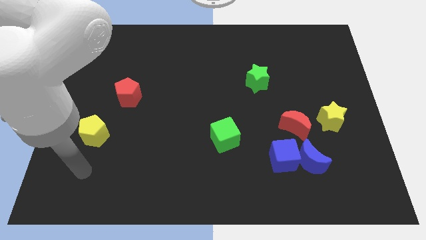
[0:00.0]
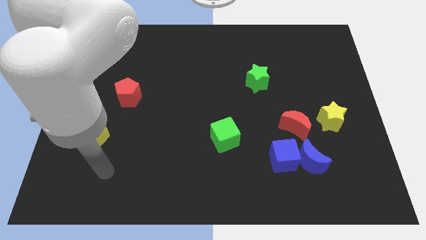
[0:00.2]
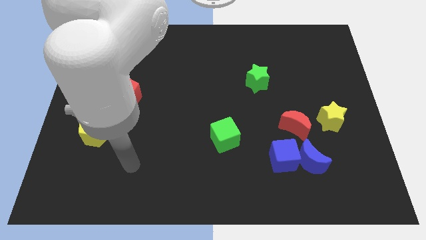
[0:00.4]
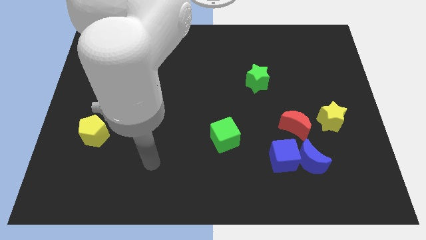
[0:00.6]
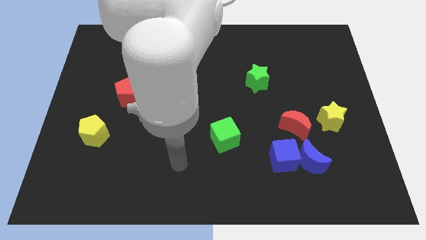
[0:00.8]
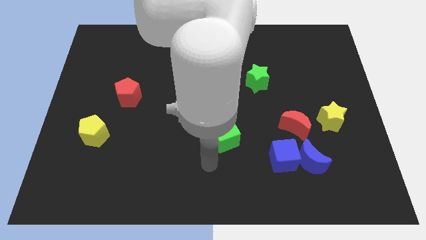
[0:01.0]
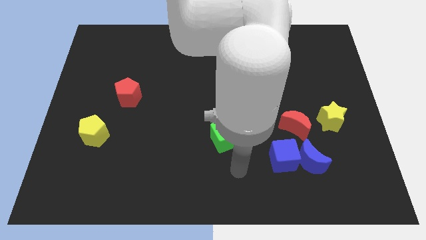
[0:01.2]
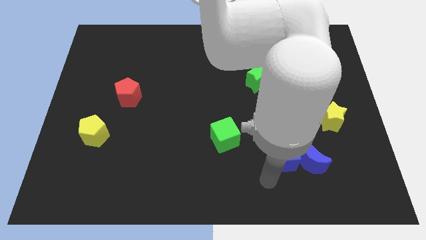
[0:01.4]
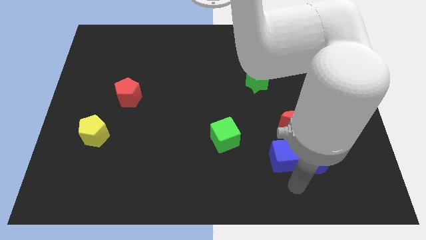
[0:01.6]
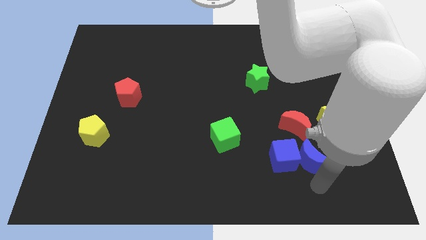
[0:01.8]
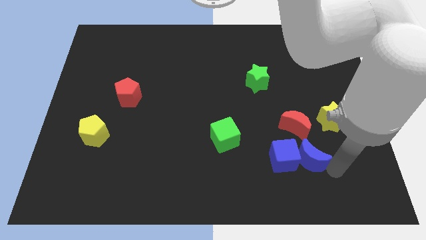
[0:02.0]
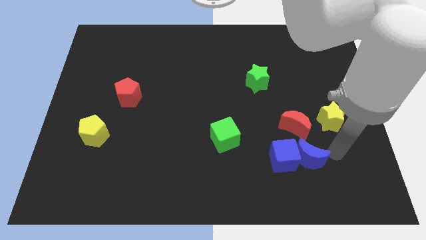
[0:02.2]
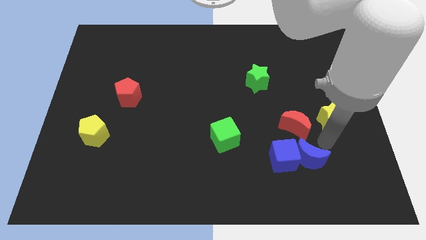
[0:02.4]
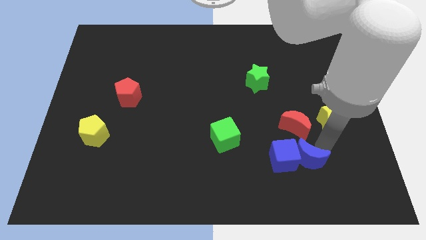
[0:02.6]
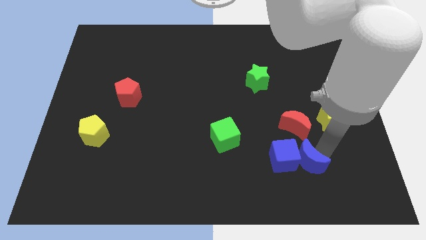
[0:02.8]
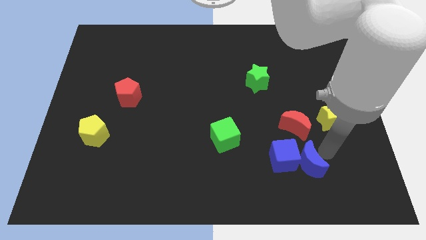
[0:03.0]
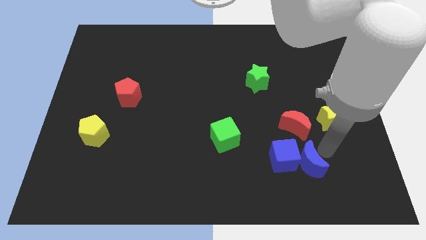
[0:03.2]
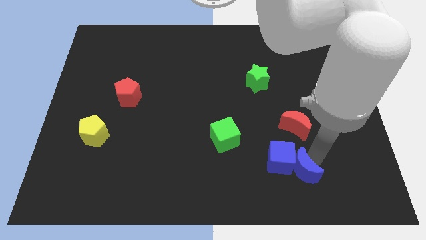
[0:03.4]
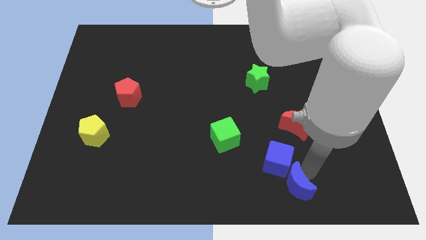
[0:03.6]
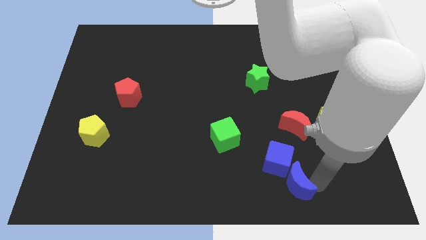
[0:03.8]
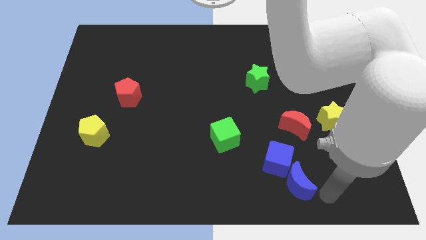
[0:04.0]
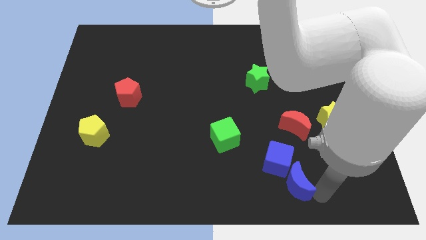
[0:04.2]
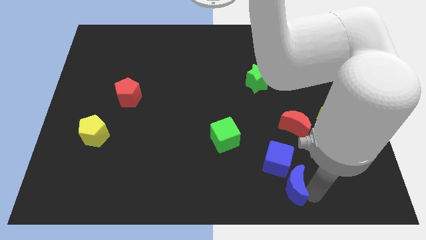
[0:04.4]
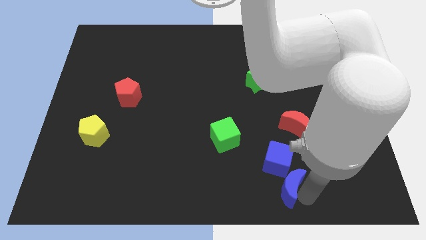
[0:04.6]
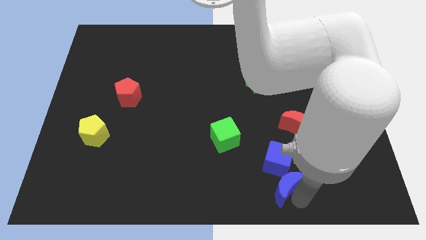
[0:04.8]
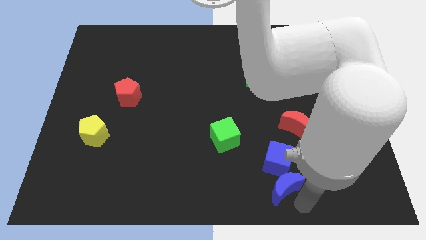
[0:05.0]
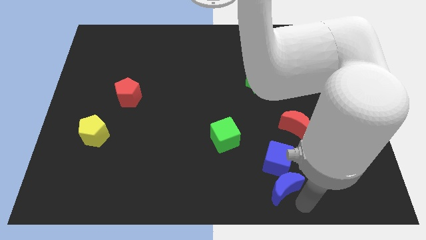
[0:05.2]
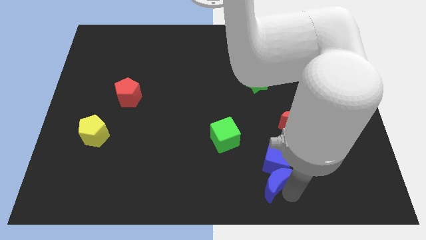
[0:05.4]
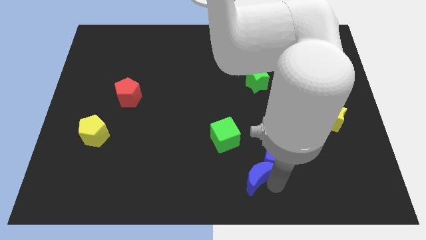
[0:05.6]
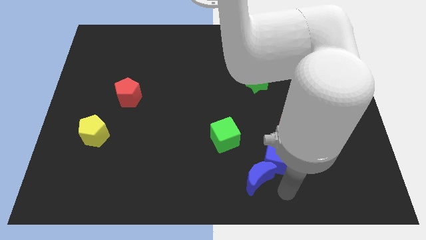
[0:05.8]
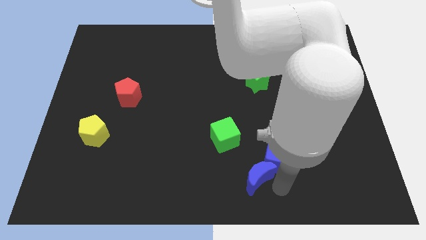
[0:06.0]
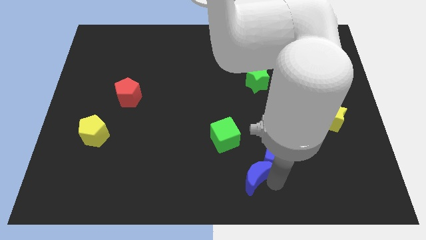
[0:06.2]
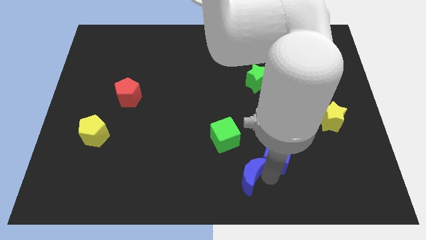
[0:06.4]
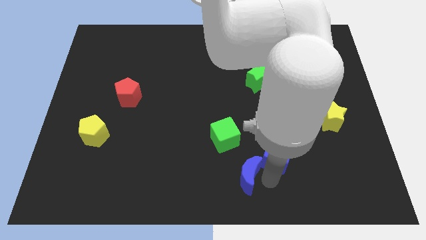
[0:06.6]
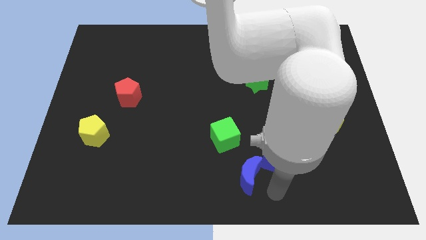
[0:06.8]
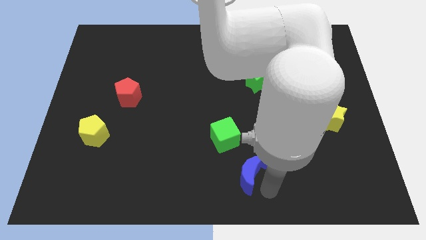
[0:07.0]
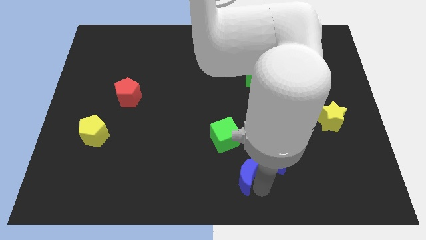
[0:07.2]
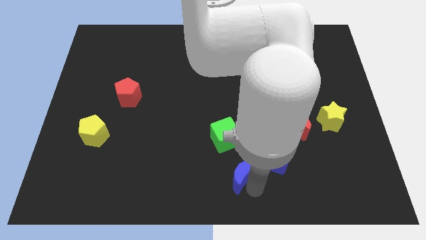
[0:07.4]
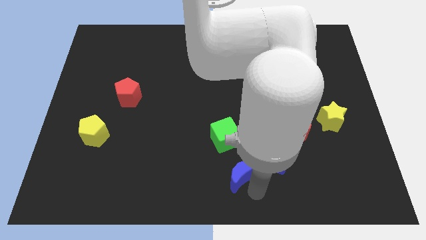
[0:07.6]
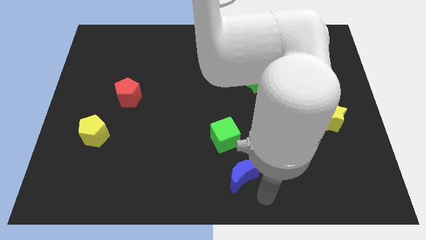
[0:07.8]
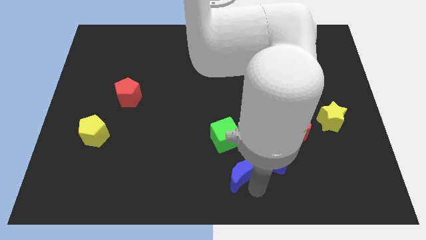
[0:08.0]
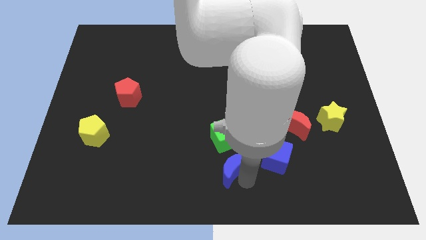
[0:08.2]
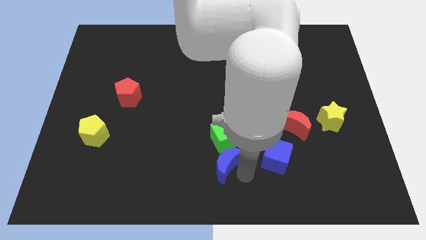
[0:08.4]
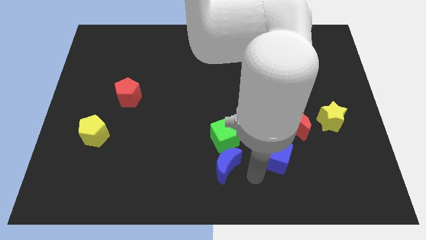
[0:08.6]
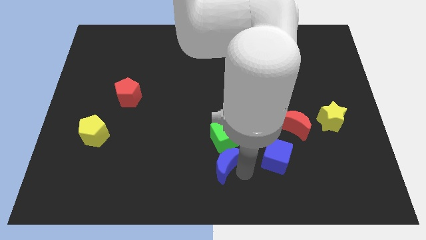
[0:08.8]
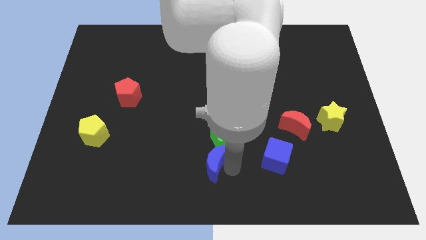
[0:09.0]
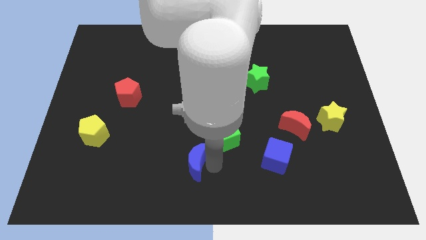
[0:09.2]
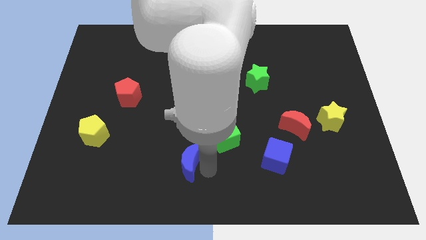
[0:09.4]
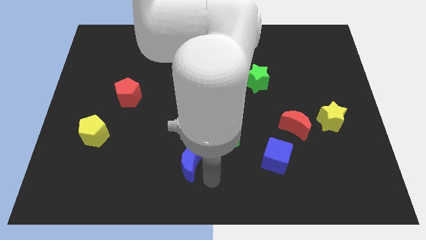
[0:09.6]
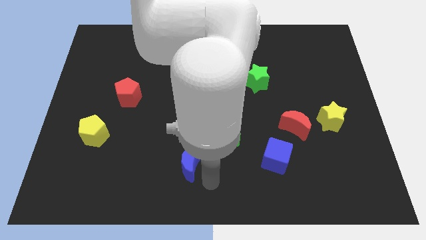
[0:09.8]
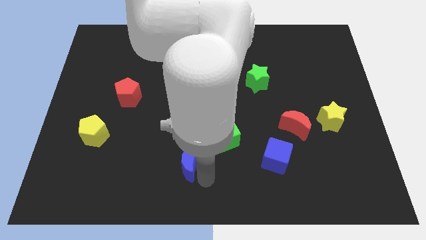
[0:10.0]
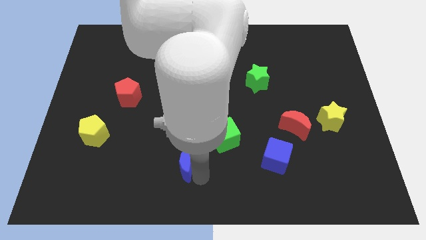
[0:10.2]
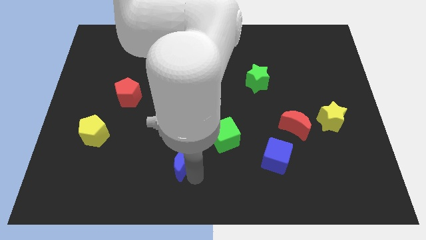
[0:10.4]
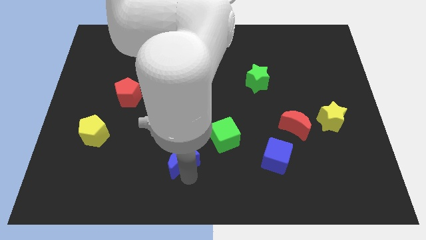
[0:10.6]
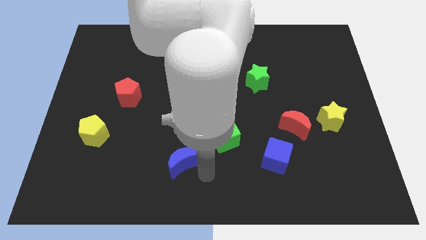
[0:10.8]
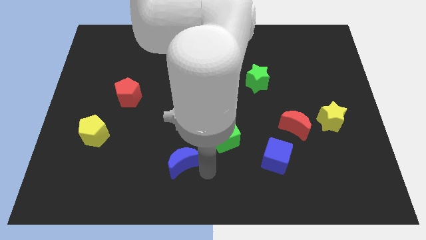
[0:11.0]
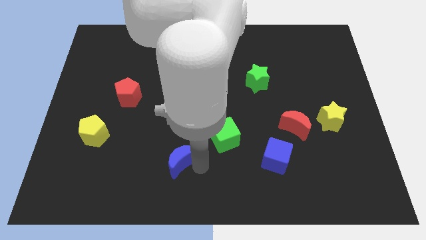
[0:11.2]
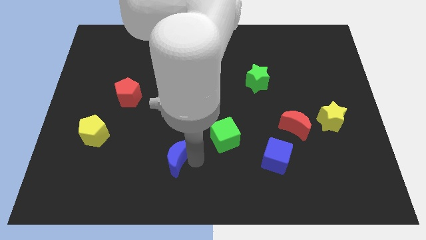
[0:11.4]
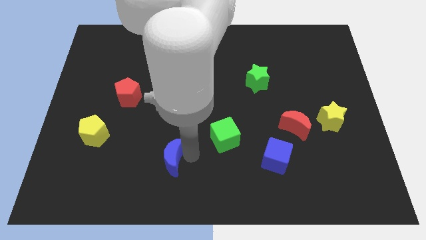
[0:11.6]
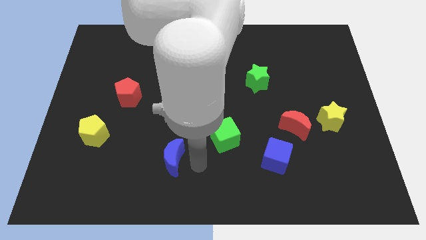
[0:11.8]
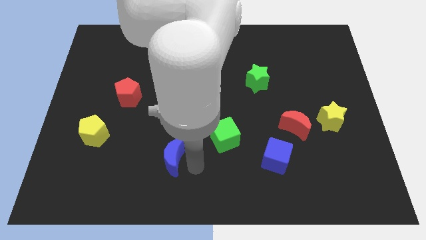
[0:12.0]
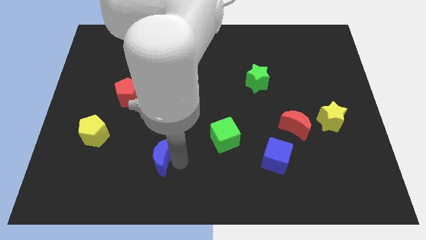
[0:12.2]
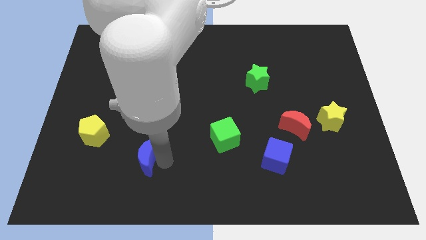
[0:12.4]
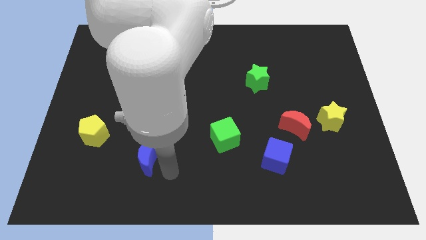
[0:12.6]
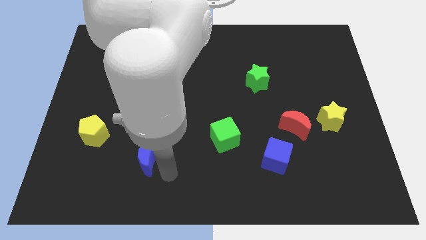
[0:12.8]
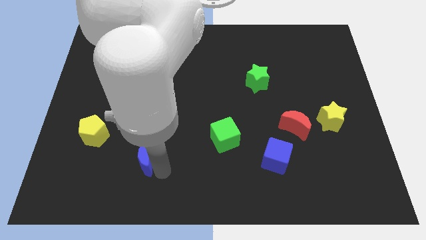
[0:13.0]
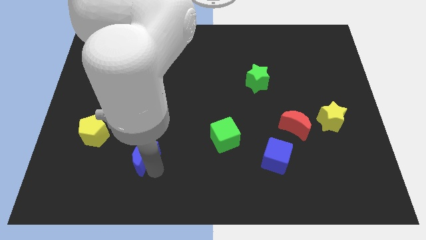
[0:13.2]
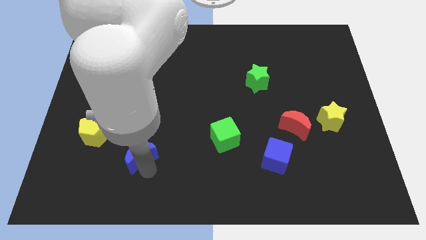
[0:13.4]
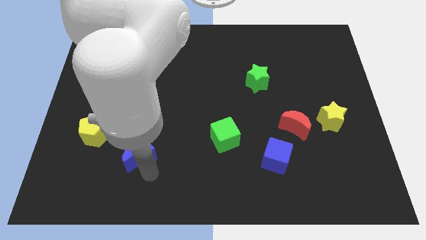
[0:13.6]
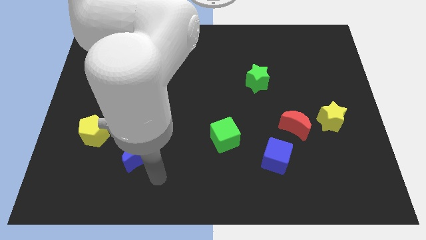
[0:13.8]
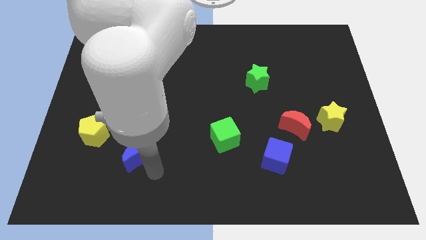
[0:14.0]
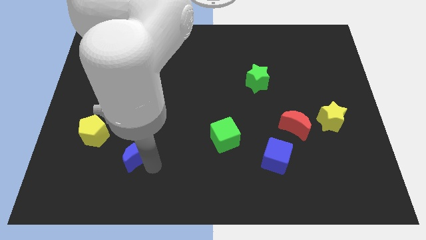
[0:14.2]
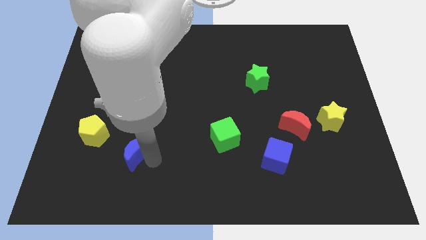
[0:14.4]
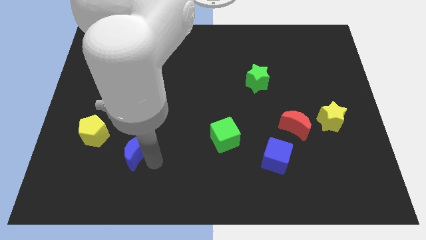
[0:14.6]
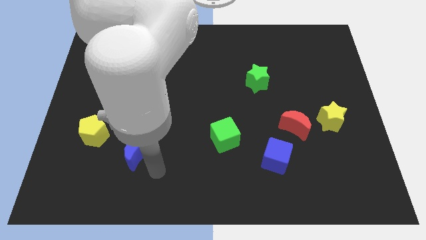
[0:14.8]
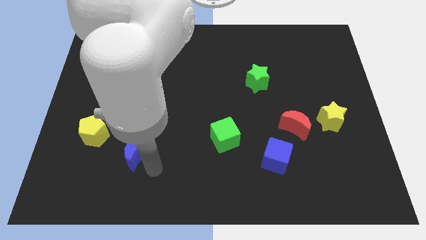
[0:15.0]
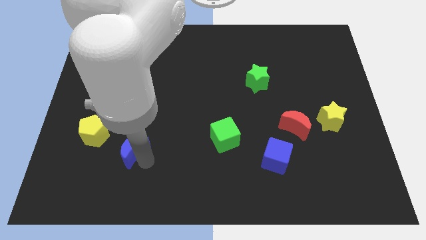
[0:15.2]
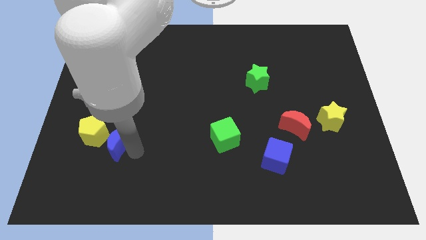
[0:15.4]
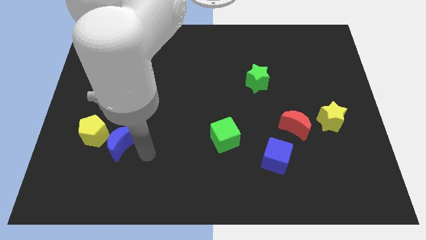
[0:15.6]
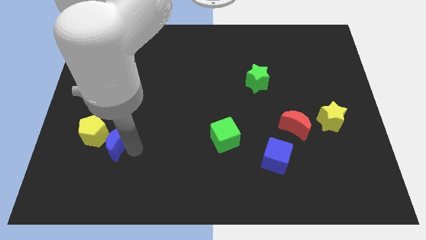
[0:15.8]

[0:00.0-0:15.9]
move the blue moon towards the yellow pentagon
